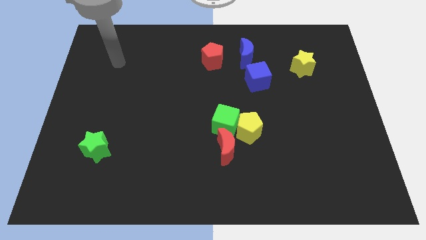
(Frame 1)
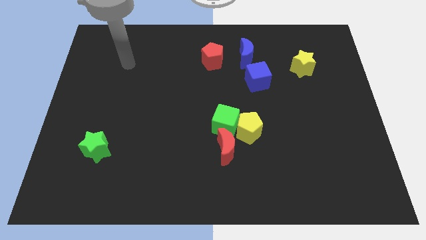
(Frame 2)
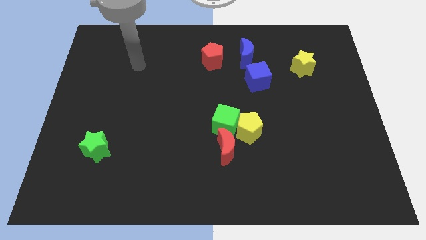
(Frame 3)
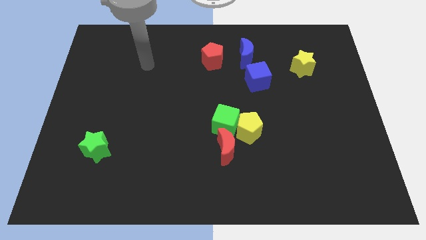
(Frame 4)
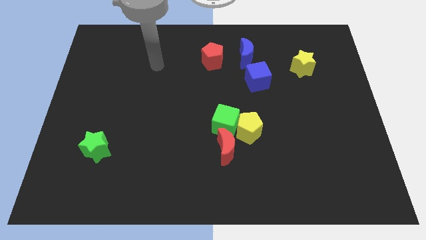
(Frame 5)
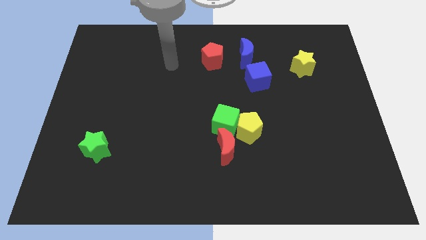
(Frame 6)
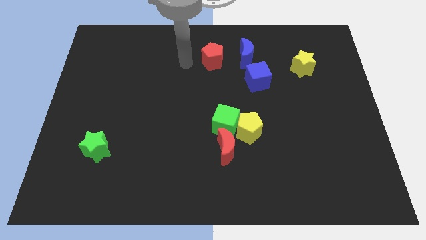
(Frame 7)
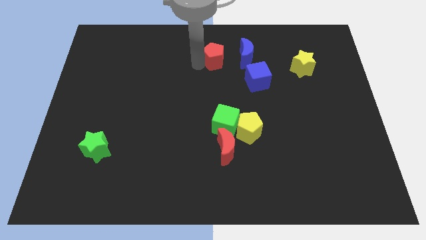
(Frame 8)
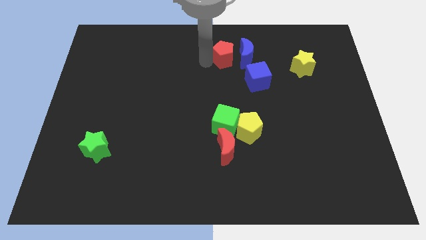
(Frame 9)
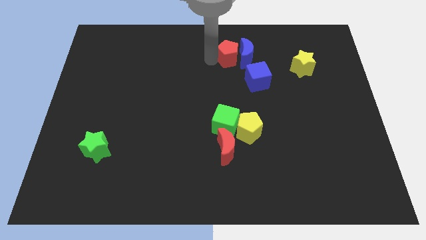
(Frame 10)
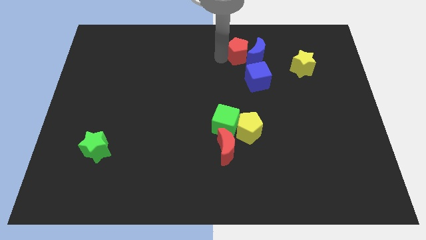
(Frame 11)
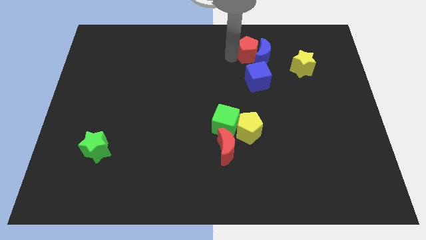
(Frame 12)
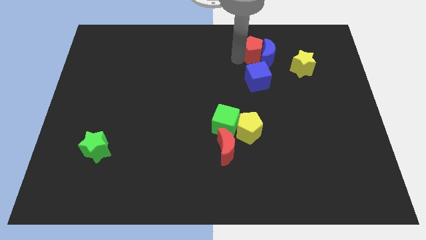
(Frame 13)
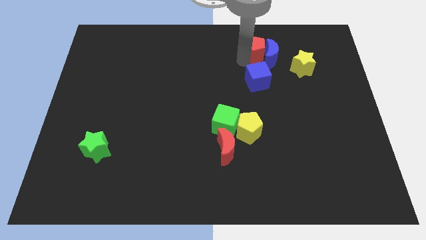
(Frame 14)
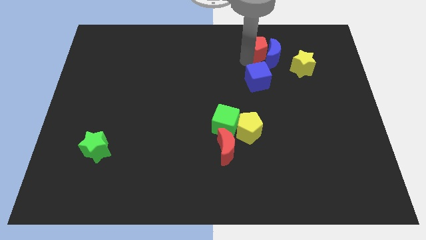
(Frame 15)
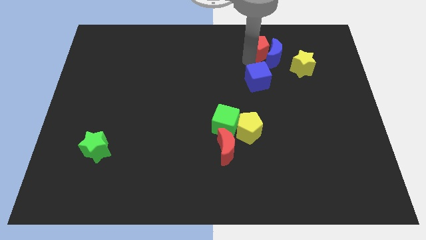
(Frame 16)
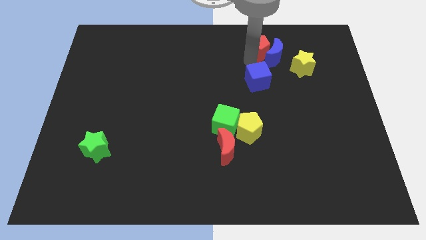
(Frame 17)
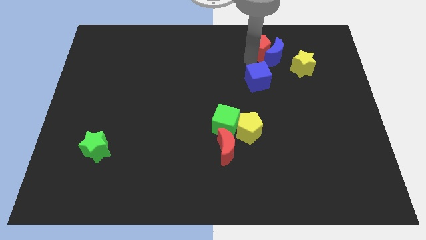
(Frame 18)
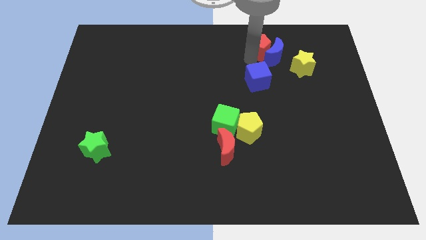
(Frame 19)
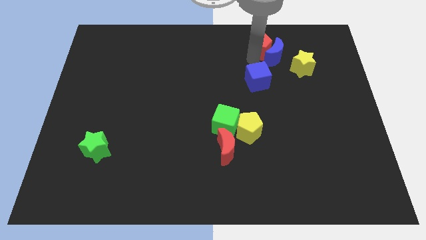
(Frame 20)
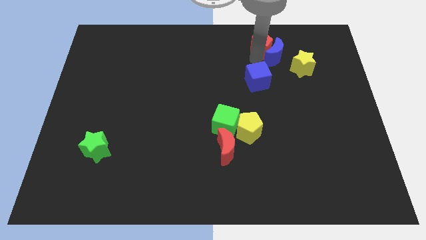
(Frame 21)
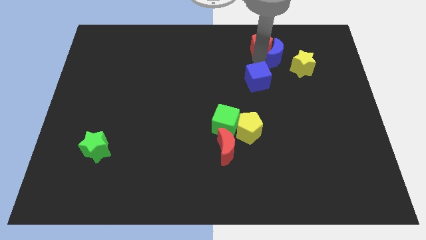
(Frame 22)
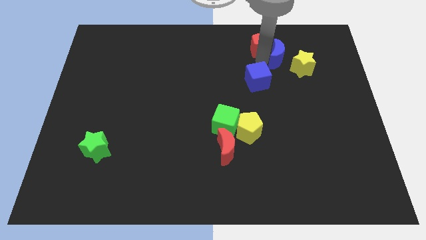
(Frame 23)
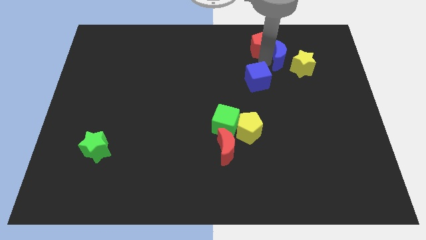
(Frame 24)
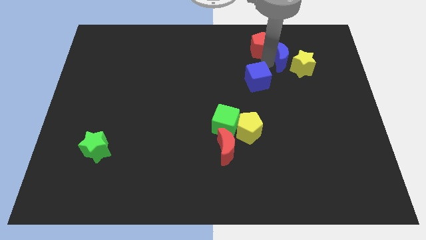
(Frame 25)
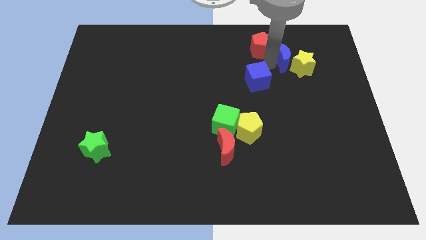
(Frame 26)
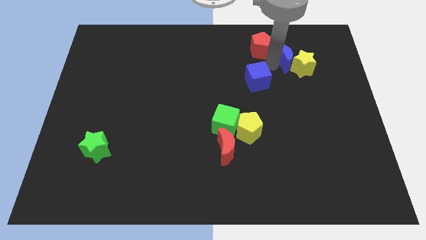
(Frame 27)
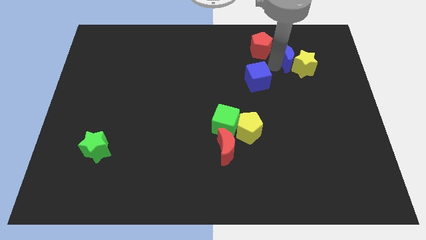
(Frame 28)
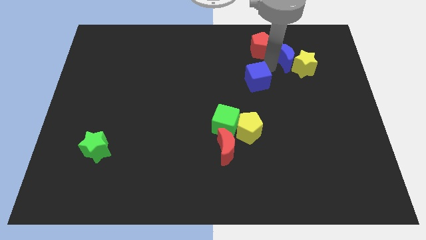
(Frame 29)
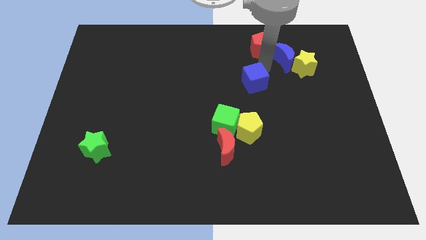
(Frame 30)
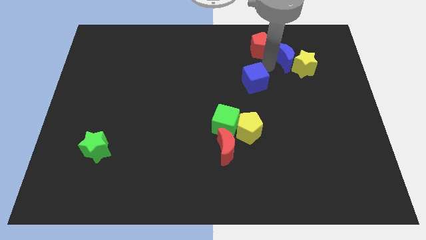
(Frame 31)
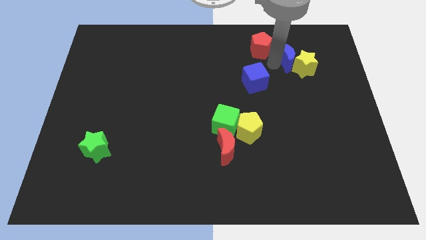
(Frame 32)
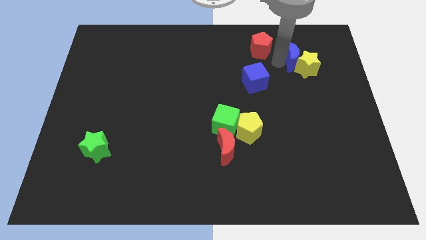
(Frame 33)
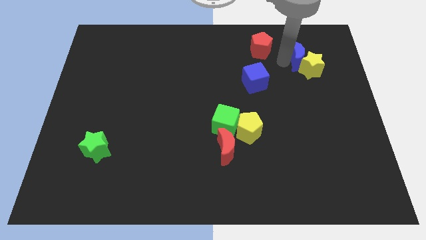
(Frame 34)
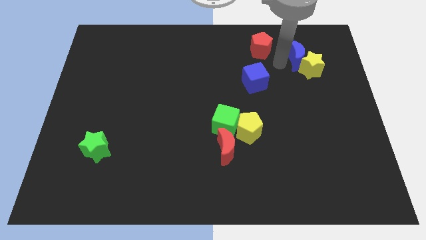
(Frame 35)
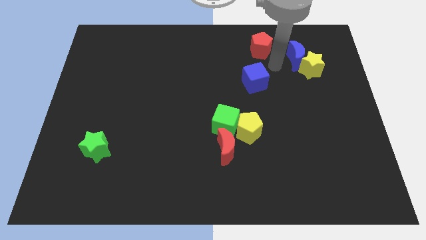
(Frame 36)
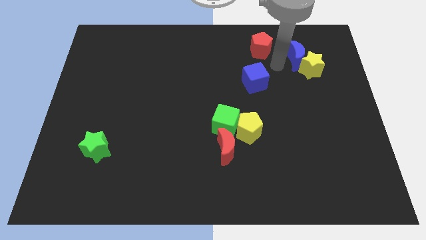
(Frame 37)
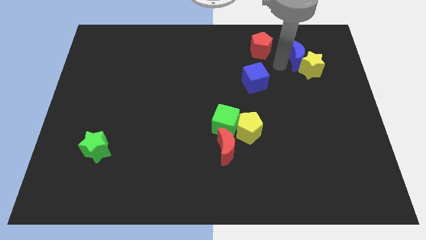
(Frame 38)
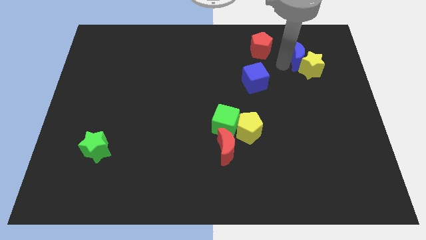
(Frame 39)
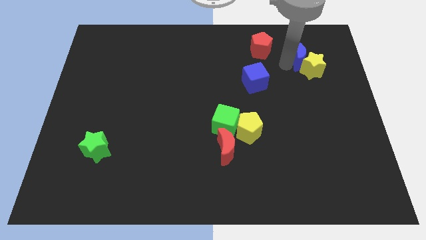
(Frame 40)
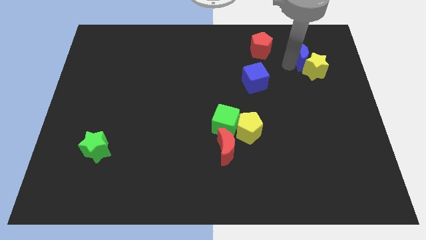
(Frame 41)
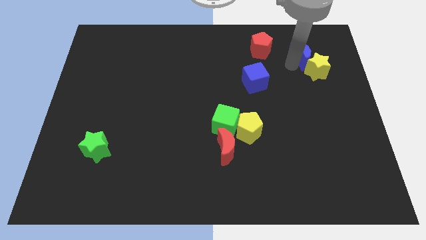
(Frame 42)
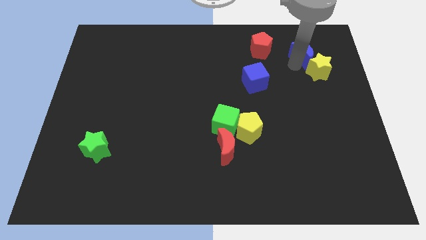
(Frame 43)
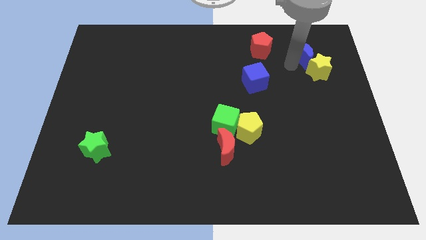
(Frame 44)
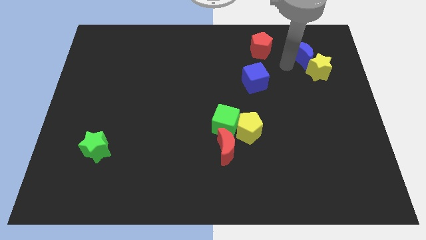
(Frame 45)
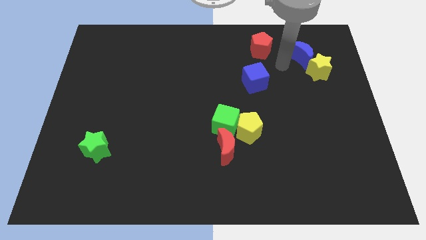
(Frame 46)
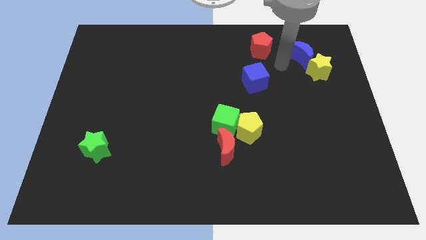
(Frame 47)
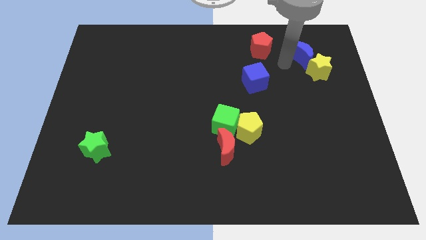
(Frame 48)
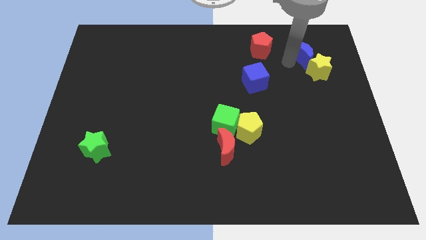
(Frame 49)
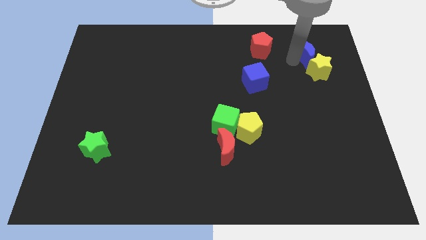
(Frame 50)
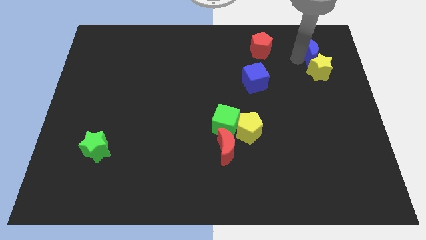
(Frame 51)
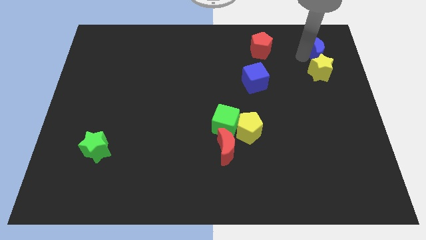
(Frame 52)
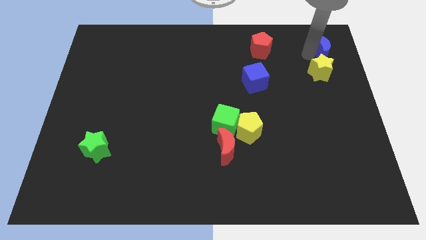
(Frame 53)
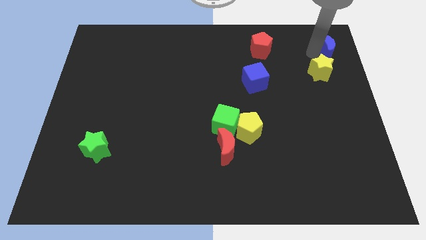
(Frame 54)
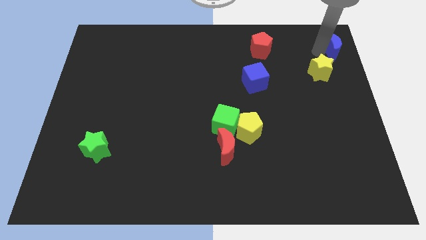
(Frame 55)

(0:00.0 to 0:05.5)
slide the blue moon to the top right of the board

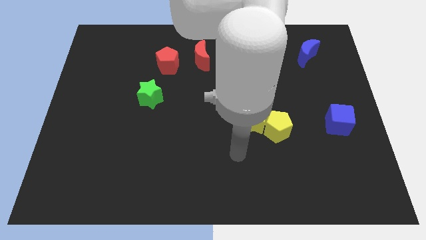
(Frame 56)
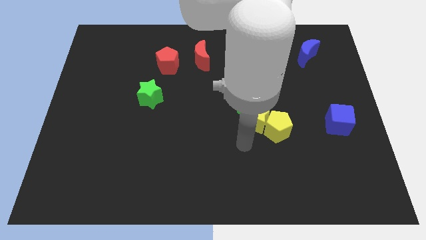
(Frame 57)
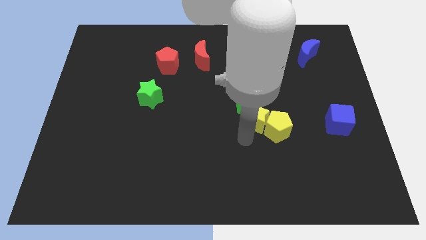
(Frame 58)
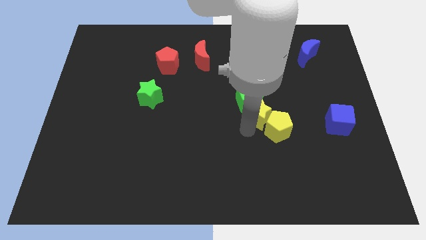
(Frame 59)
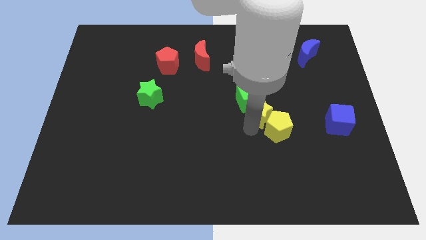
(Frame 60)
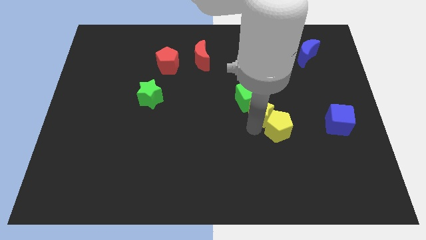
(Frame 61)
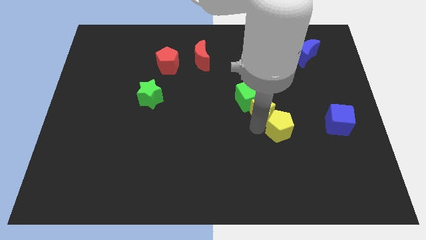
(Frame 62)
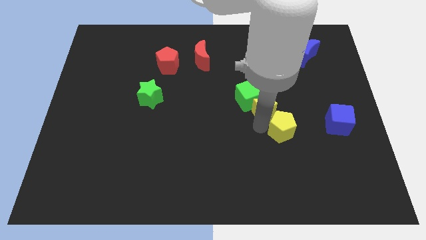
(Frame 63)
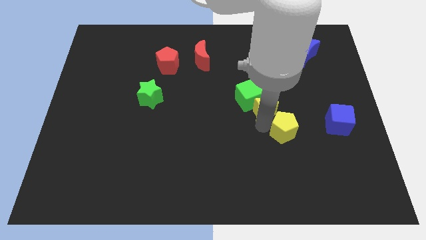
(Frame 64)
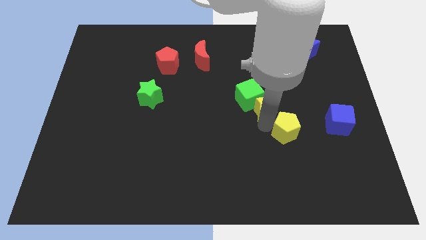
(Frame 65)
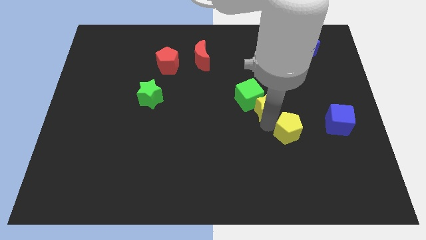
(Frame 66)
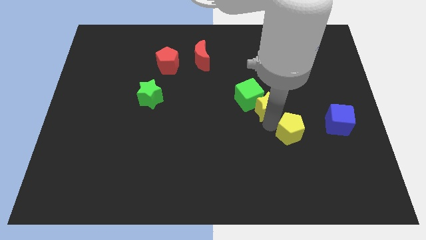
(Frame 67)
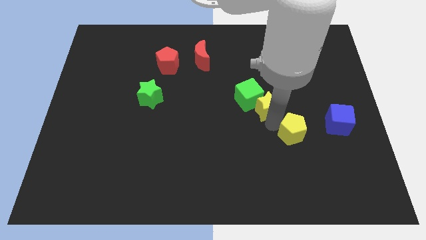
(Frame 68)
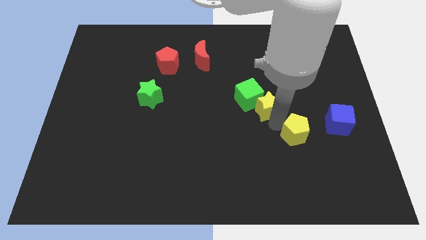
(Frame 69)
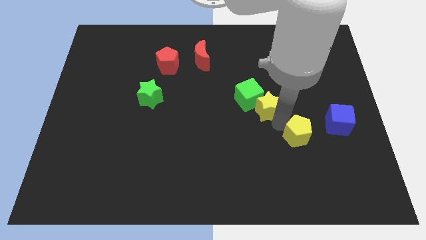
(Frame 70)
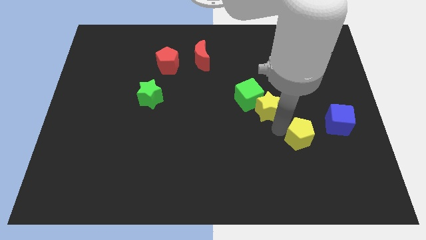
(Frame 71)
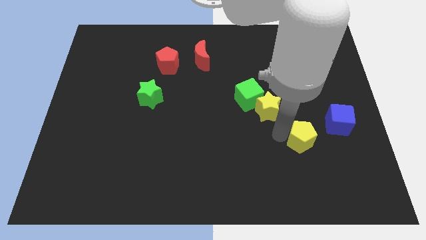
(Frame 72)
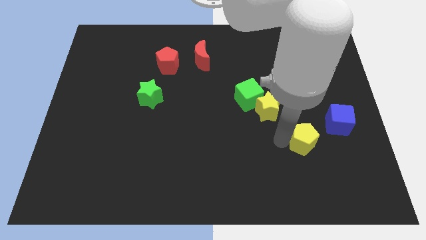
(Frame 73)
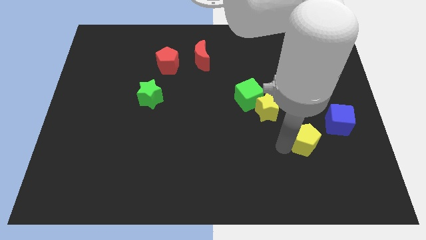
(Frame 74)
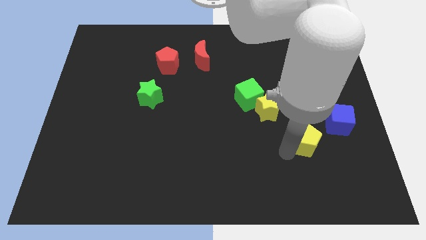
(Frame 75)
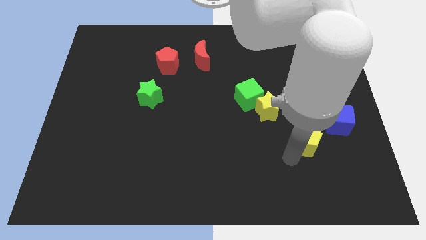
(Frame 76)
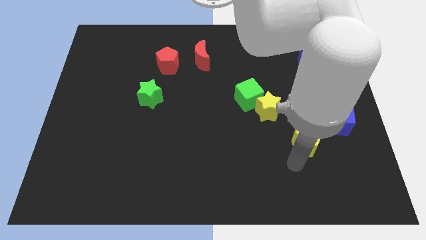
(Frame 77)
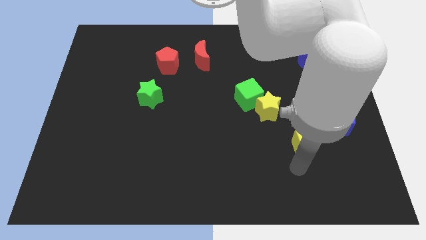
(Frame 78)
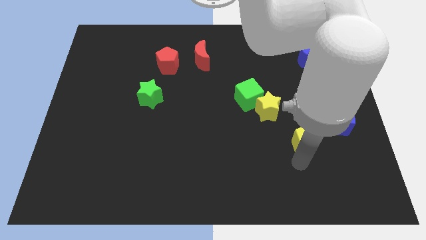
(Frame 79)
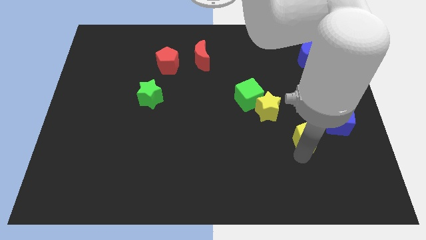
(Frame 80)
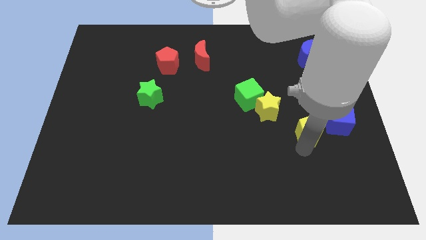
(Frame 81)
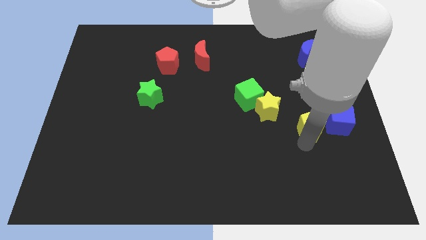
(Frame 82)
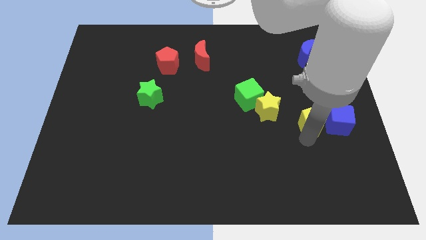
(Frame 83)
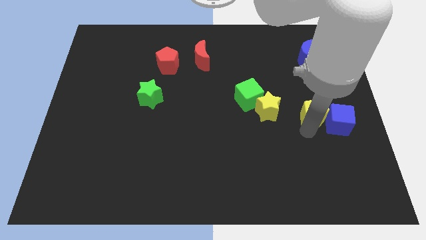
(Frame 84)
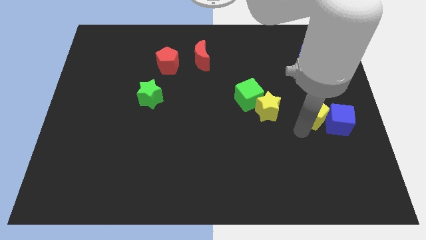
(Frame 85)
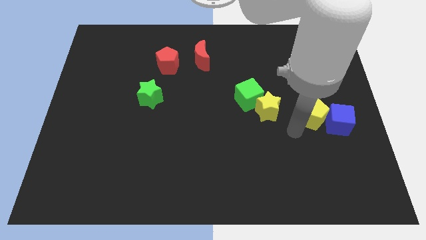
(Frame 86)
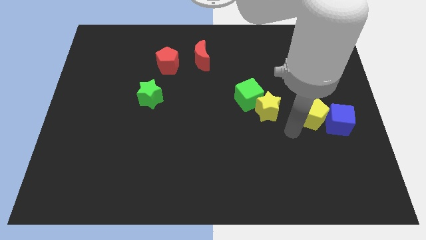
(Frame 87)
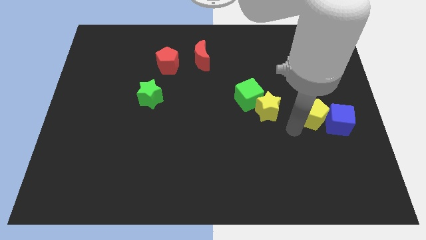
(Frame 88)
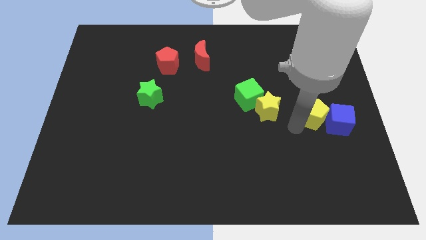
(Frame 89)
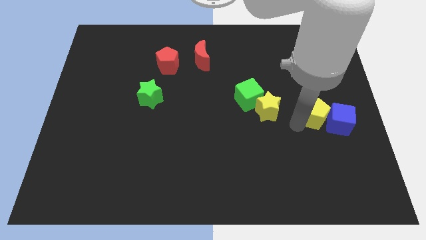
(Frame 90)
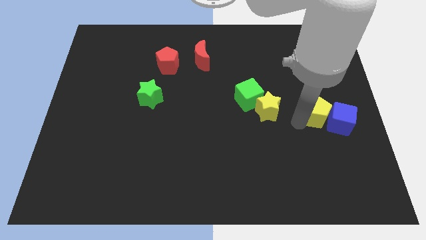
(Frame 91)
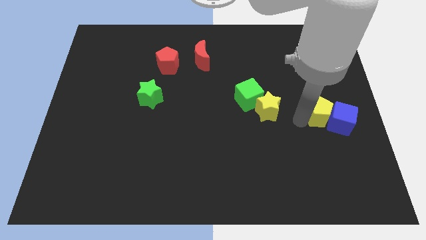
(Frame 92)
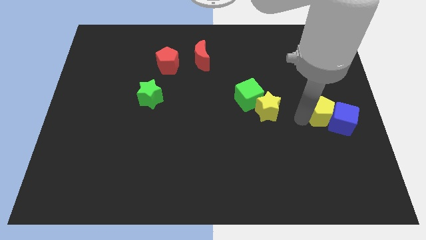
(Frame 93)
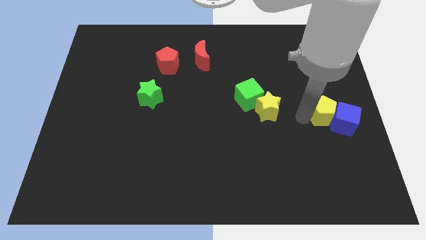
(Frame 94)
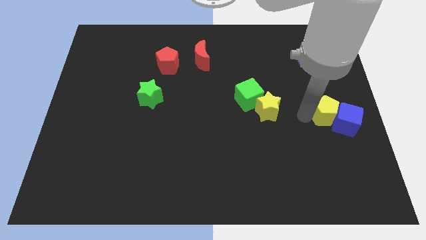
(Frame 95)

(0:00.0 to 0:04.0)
put the yellow pentagon to the right side
